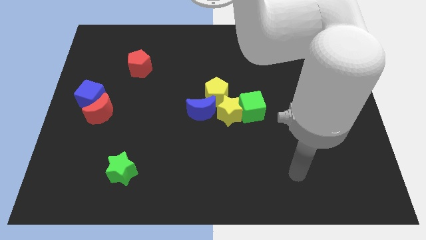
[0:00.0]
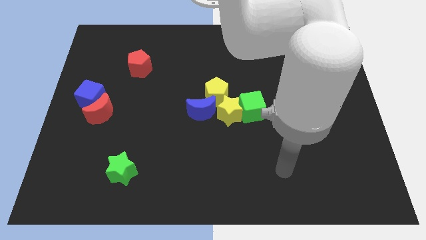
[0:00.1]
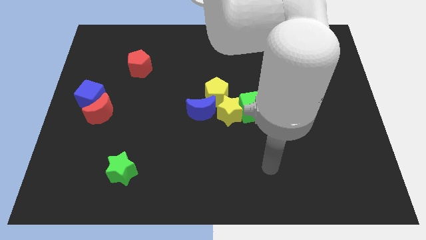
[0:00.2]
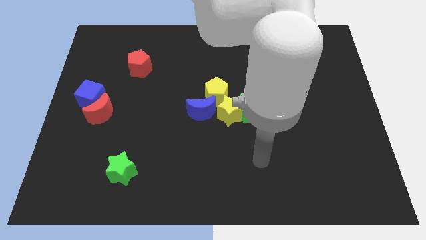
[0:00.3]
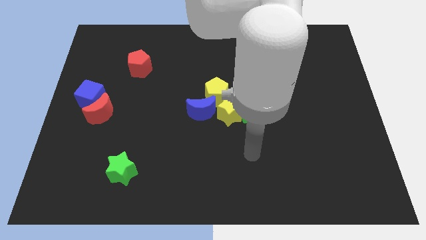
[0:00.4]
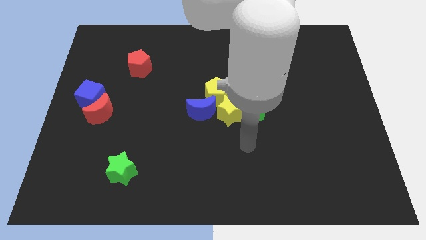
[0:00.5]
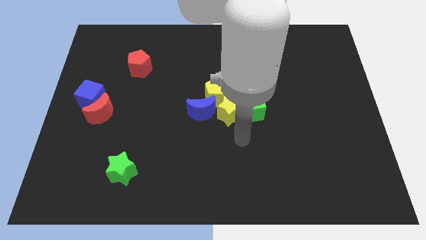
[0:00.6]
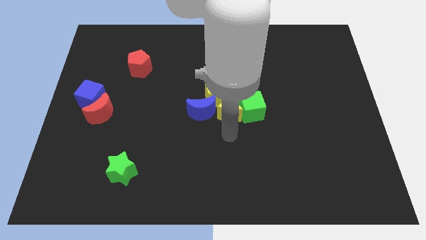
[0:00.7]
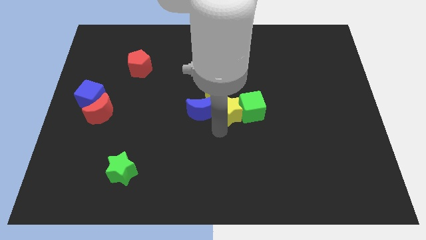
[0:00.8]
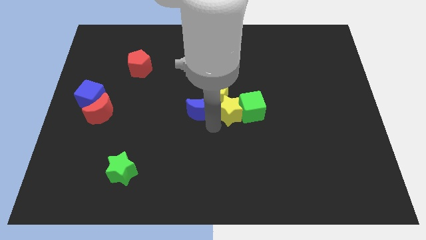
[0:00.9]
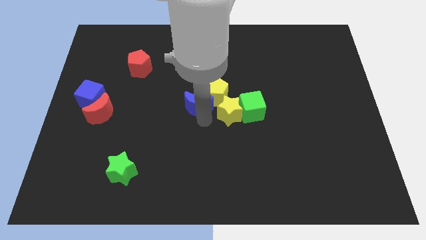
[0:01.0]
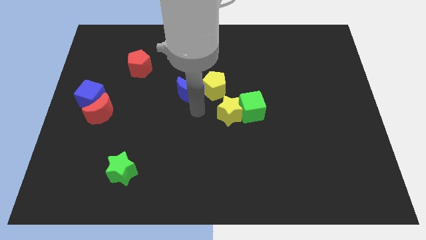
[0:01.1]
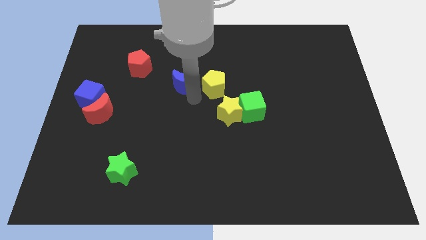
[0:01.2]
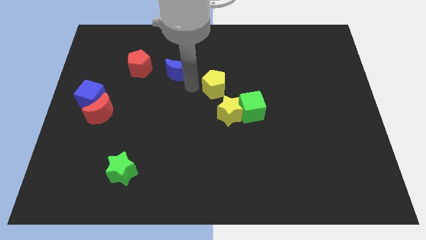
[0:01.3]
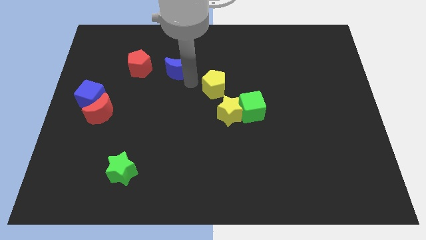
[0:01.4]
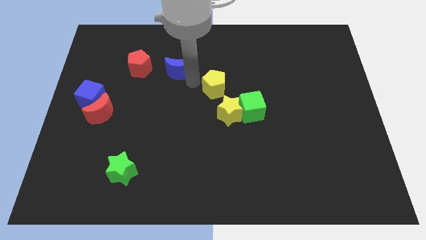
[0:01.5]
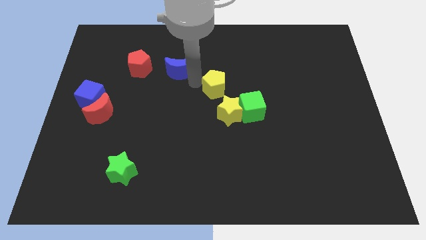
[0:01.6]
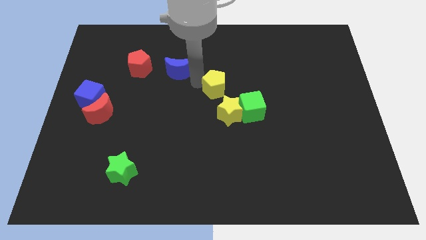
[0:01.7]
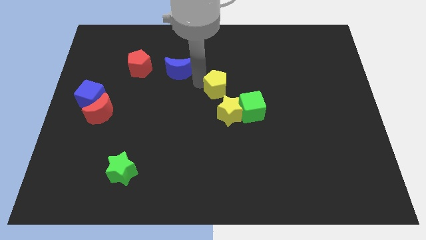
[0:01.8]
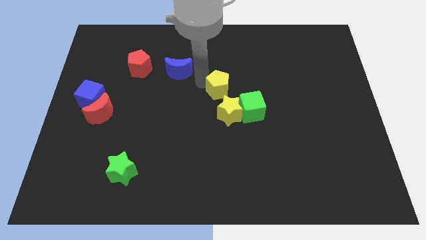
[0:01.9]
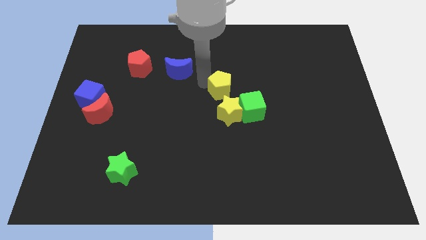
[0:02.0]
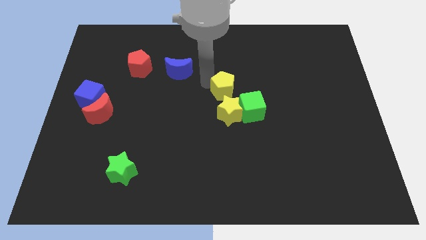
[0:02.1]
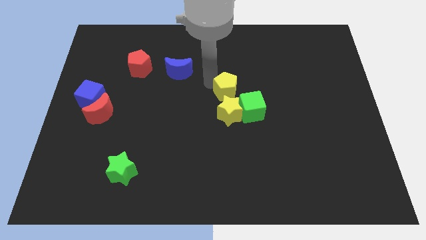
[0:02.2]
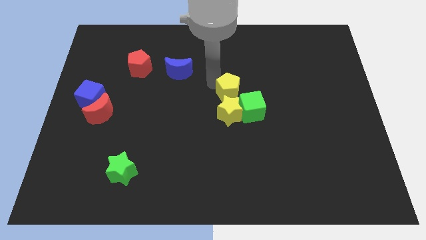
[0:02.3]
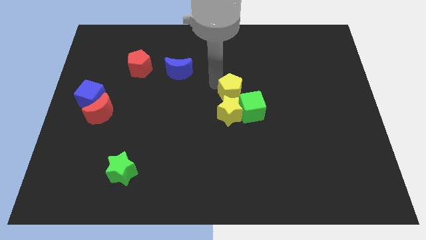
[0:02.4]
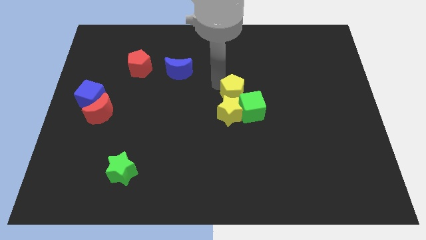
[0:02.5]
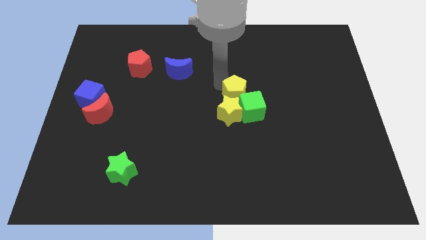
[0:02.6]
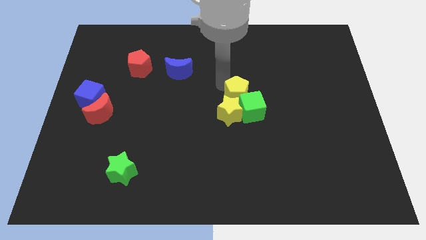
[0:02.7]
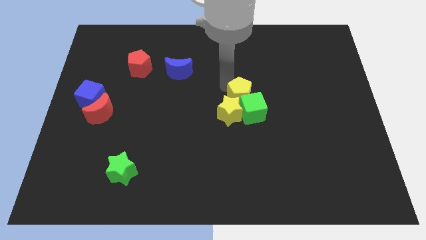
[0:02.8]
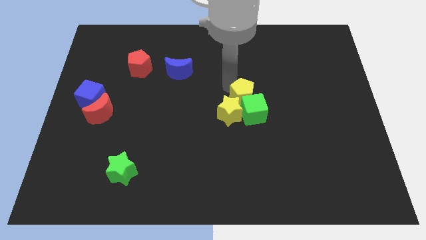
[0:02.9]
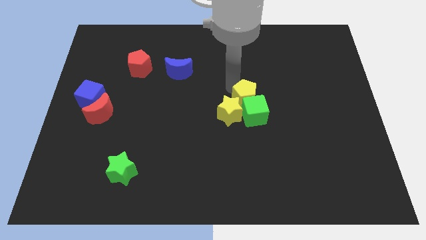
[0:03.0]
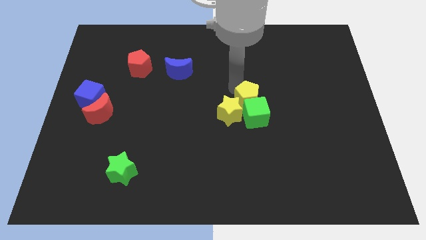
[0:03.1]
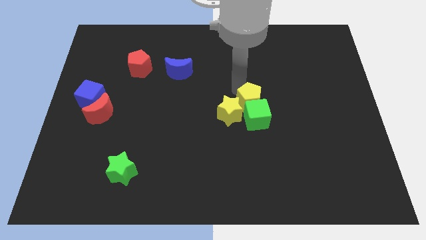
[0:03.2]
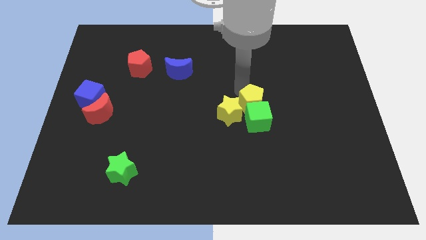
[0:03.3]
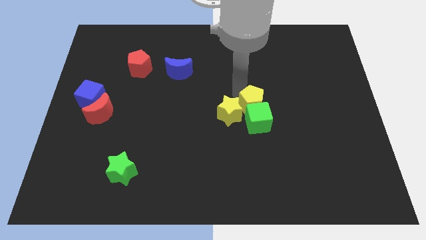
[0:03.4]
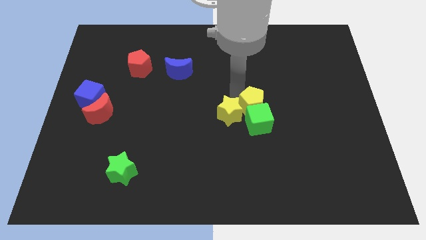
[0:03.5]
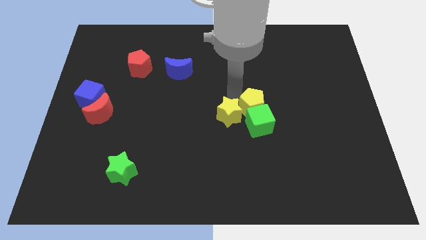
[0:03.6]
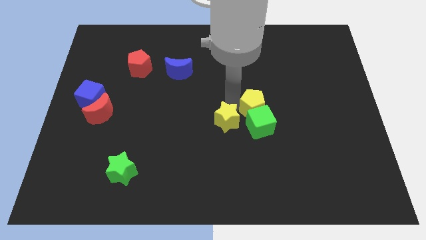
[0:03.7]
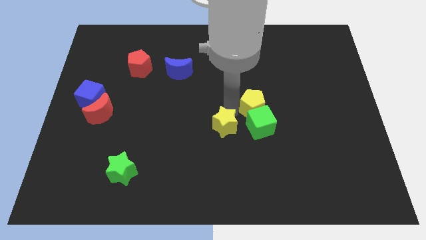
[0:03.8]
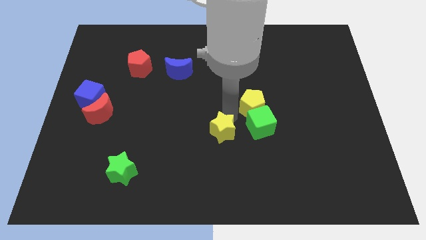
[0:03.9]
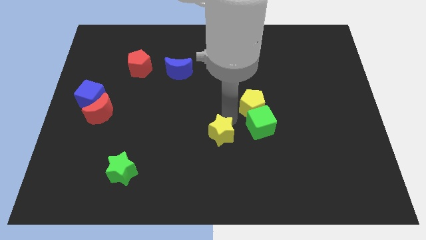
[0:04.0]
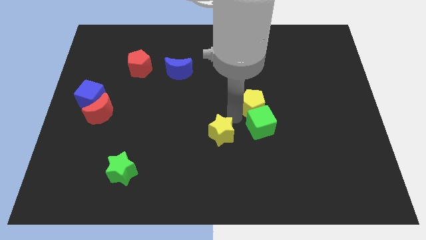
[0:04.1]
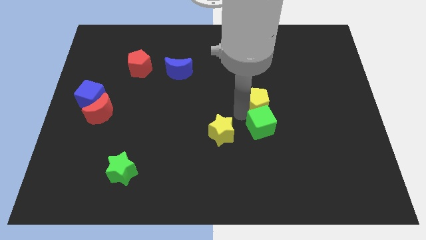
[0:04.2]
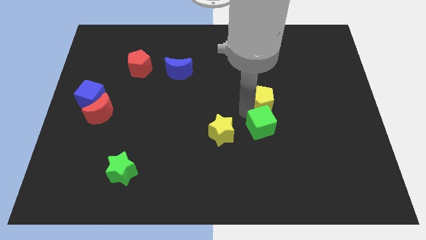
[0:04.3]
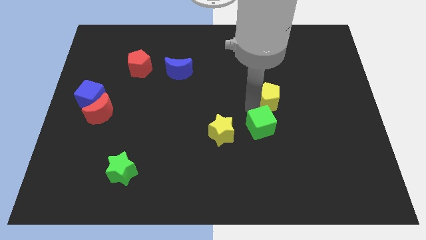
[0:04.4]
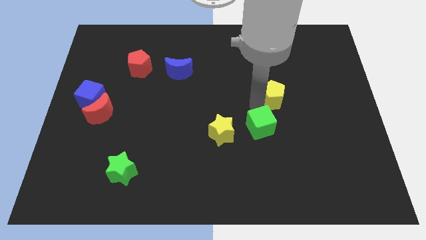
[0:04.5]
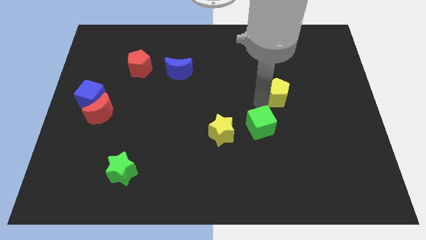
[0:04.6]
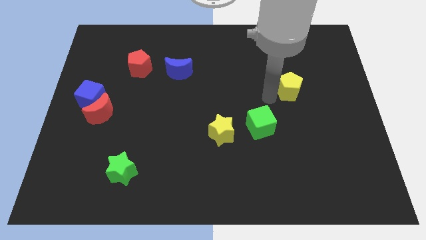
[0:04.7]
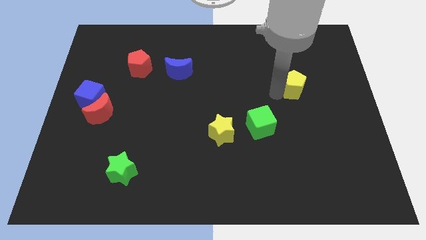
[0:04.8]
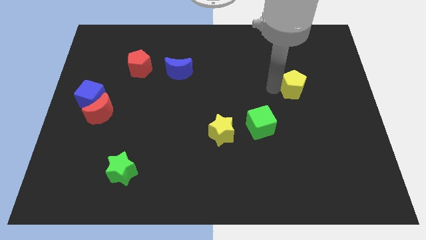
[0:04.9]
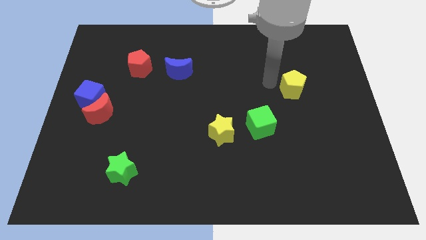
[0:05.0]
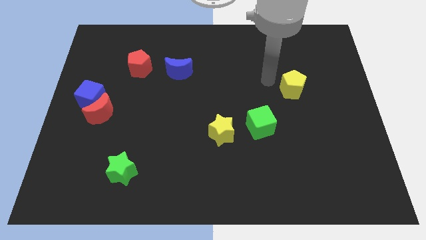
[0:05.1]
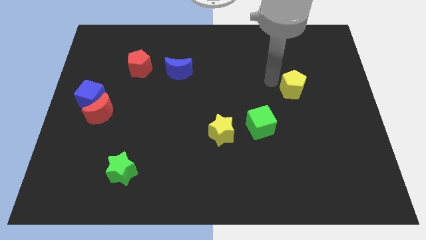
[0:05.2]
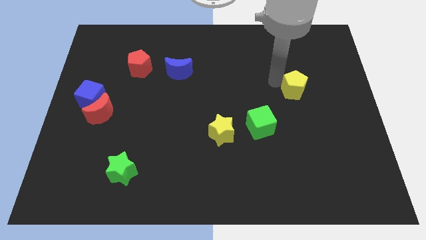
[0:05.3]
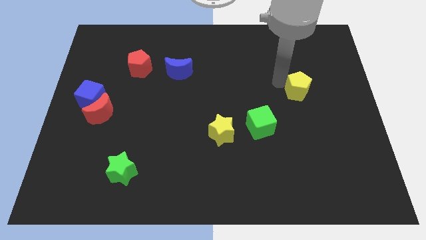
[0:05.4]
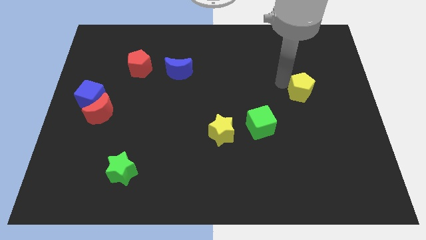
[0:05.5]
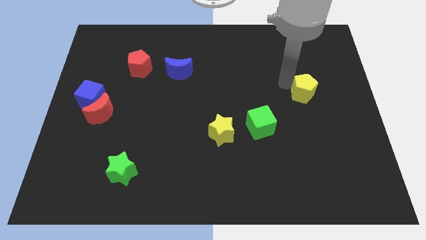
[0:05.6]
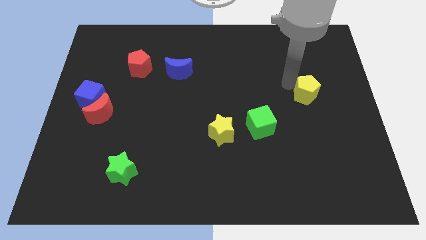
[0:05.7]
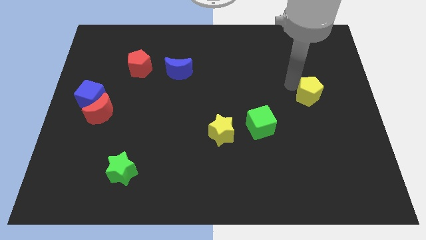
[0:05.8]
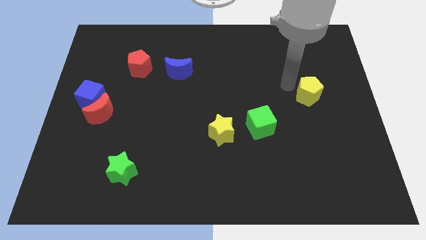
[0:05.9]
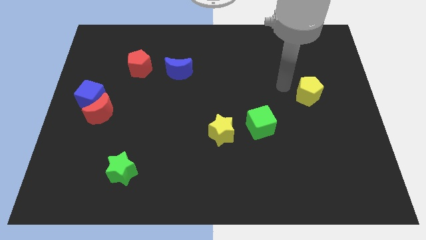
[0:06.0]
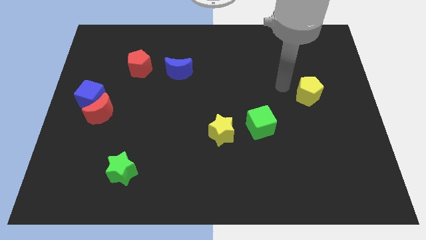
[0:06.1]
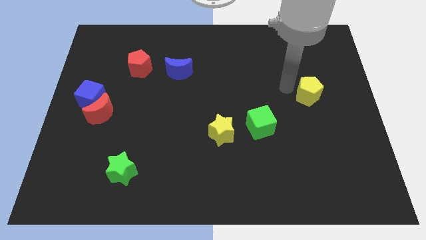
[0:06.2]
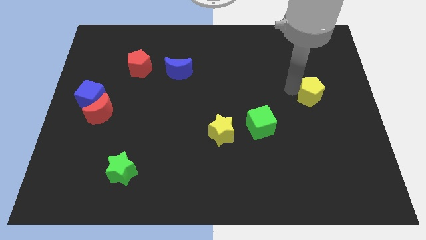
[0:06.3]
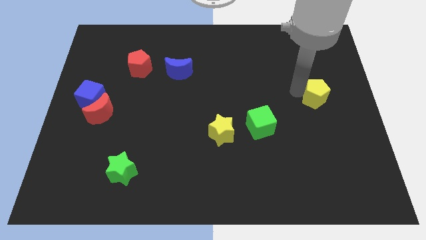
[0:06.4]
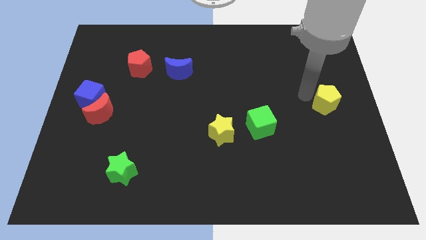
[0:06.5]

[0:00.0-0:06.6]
slide the yellow pentagon to the right side

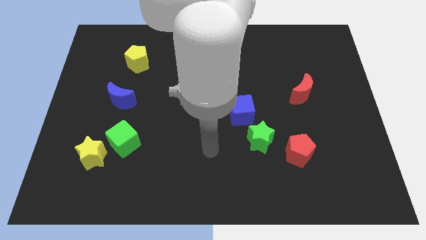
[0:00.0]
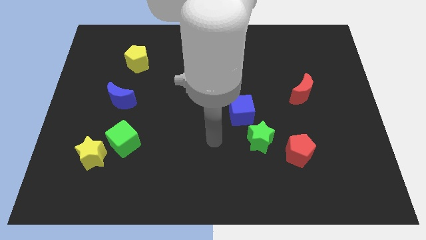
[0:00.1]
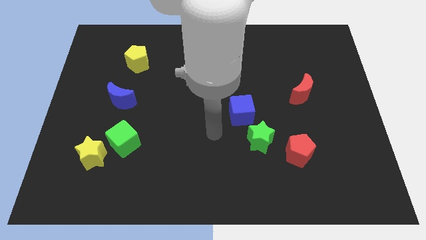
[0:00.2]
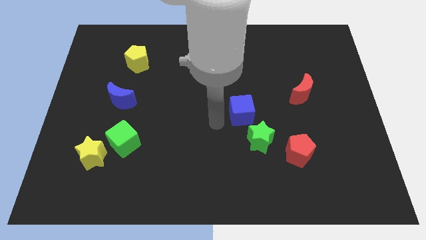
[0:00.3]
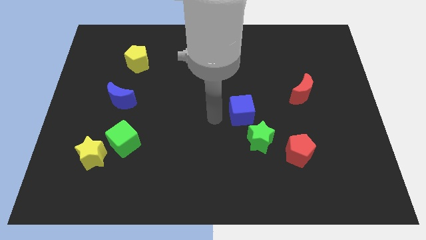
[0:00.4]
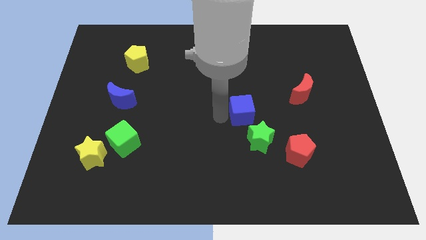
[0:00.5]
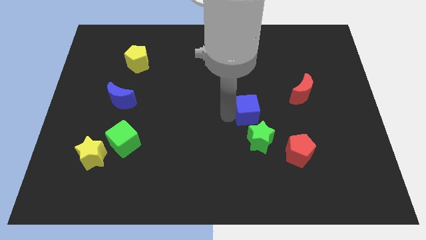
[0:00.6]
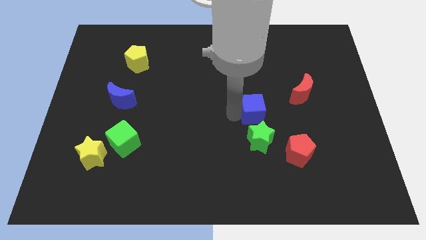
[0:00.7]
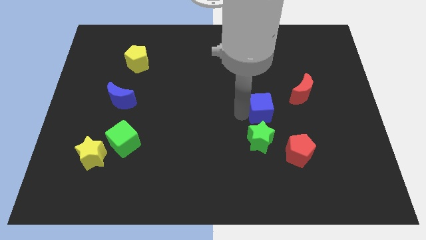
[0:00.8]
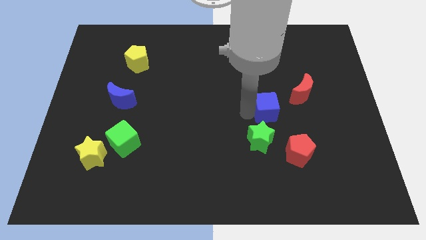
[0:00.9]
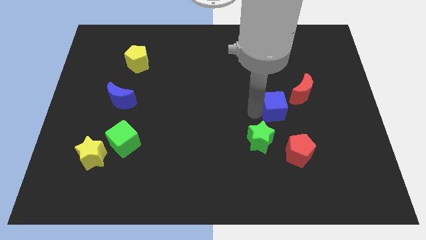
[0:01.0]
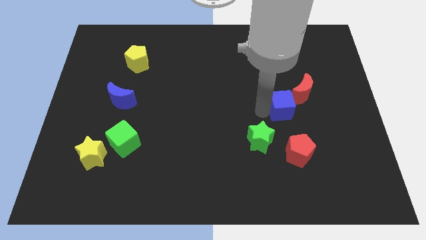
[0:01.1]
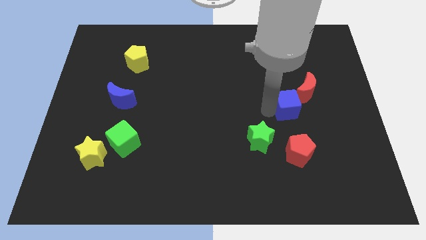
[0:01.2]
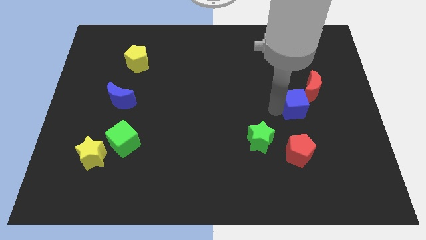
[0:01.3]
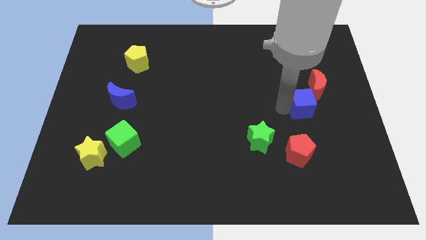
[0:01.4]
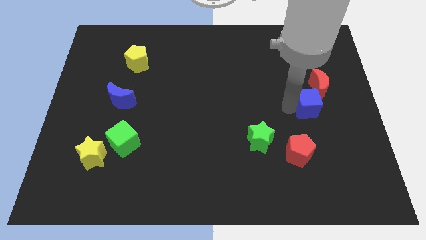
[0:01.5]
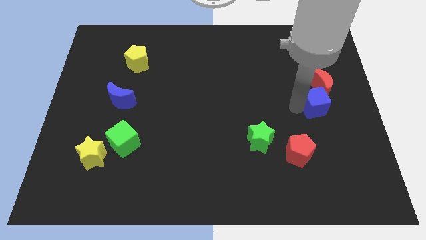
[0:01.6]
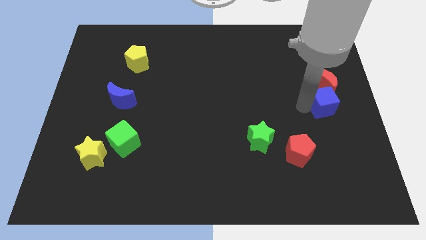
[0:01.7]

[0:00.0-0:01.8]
push the blue cube to the right side of the board
